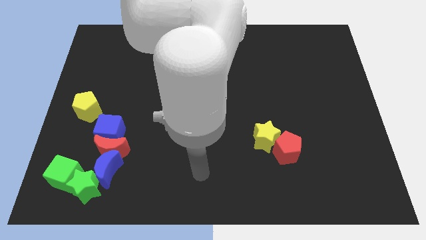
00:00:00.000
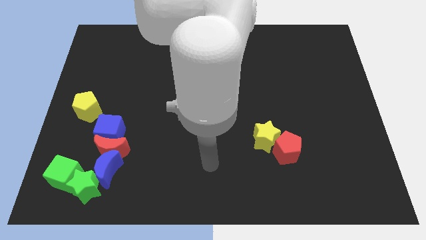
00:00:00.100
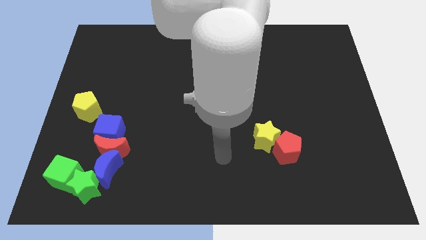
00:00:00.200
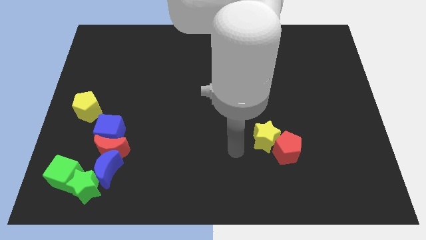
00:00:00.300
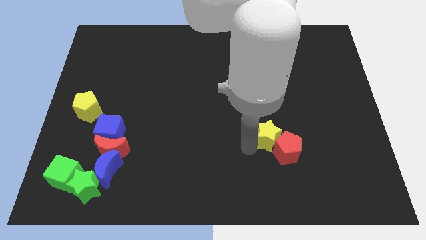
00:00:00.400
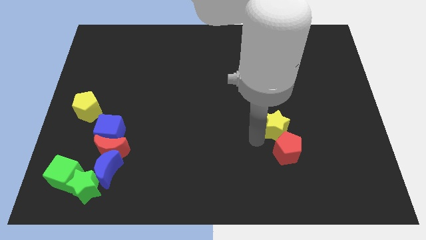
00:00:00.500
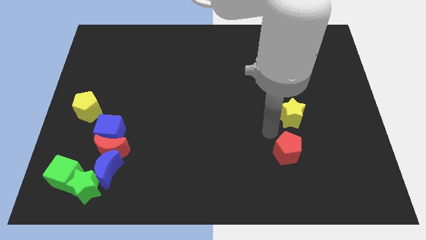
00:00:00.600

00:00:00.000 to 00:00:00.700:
pull the red pentagon apart from the yellow star

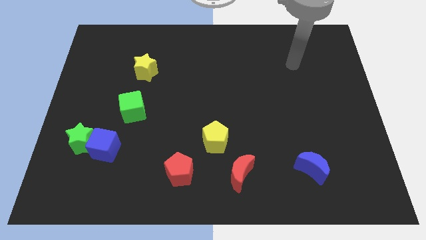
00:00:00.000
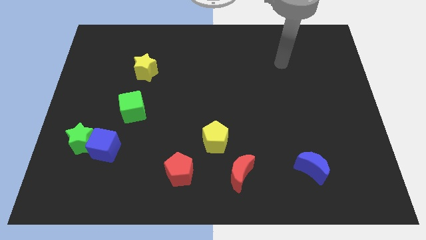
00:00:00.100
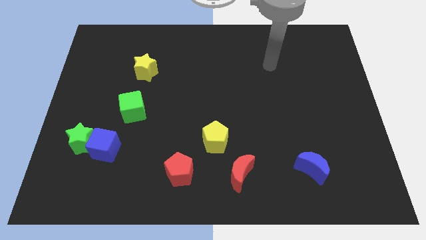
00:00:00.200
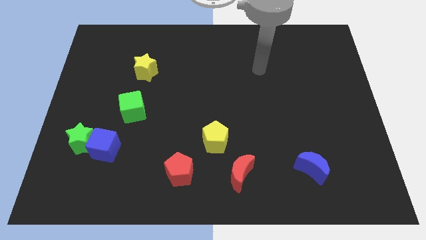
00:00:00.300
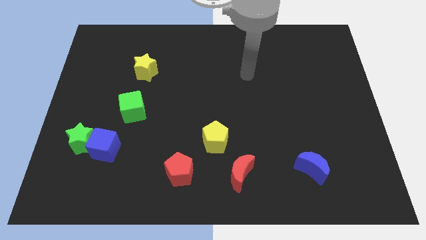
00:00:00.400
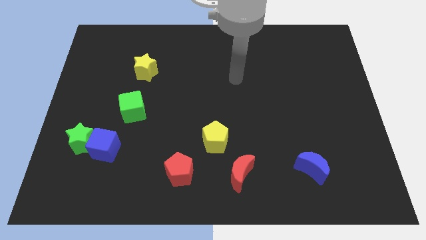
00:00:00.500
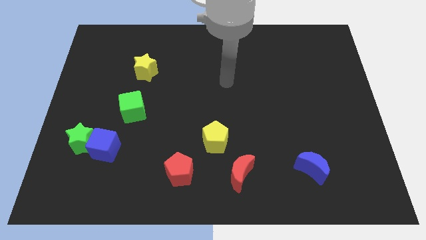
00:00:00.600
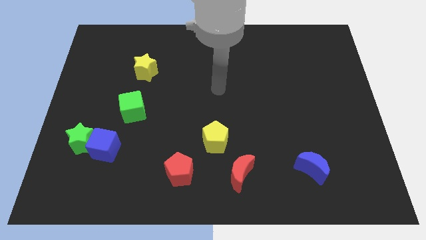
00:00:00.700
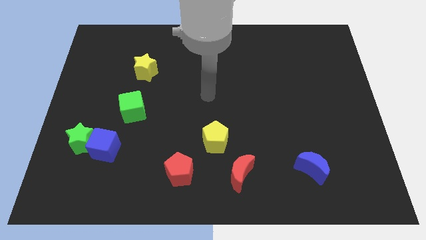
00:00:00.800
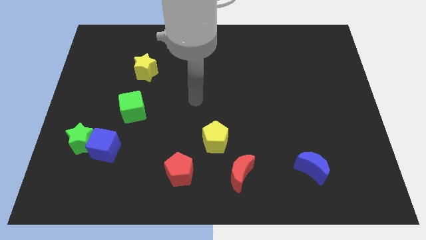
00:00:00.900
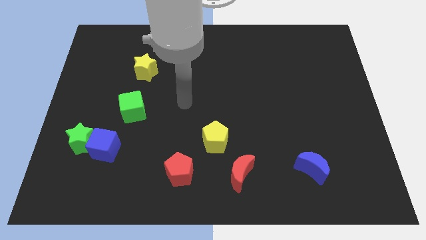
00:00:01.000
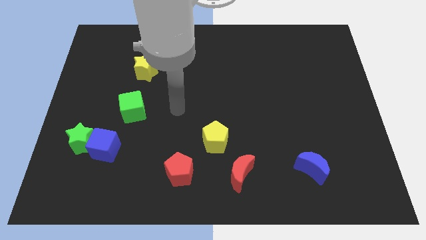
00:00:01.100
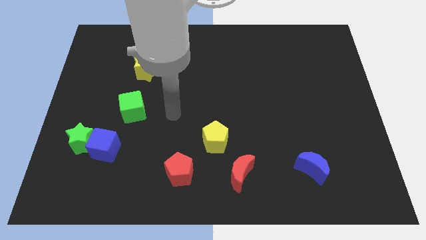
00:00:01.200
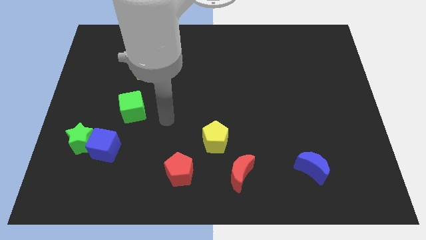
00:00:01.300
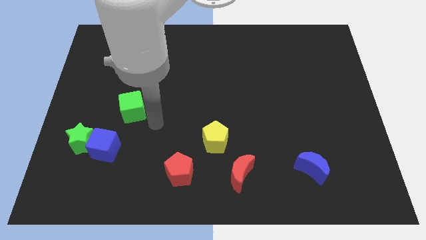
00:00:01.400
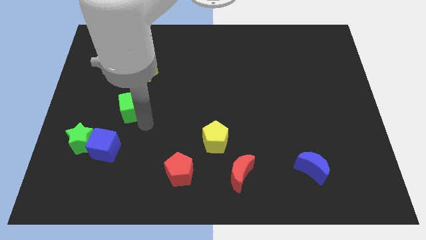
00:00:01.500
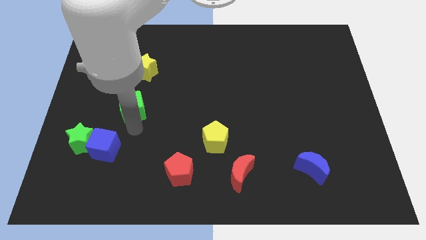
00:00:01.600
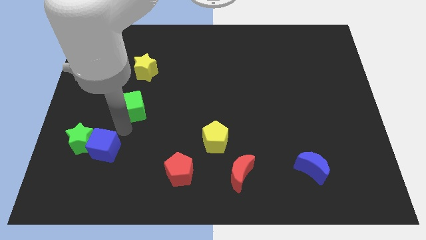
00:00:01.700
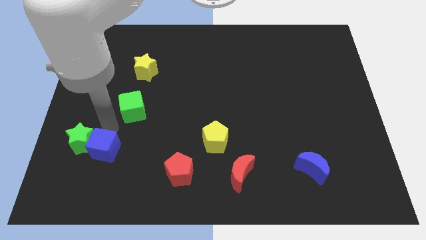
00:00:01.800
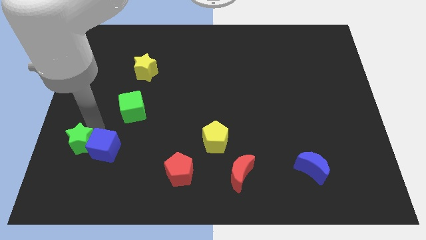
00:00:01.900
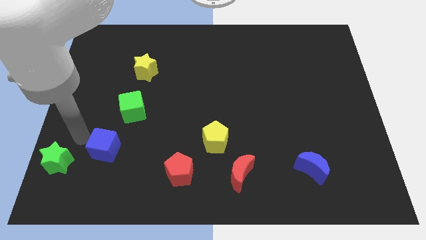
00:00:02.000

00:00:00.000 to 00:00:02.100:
move the blue cube away from the green star

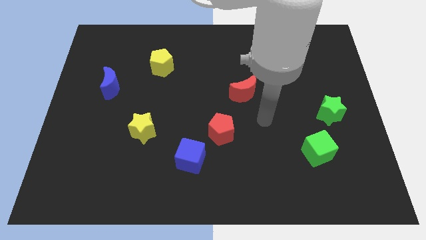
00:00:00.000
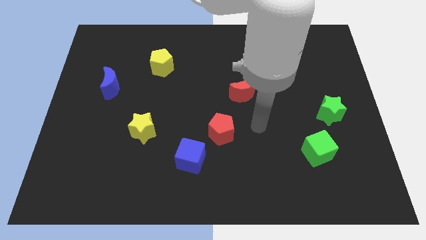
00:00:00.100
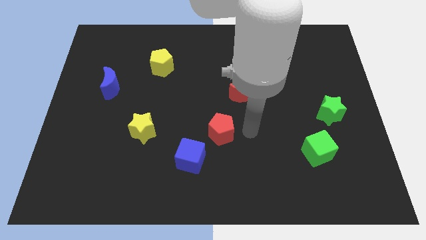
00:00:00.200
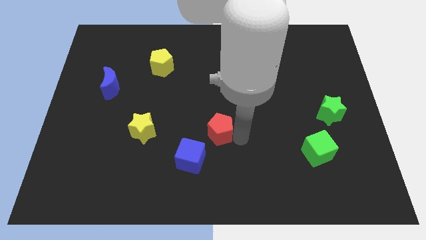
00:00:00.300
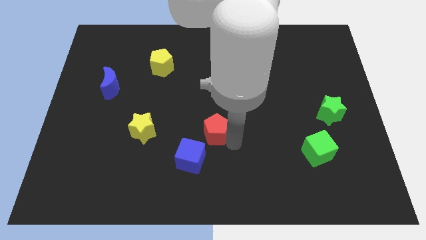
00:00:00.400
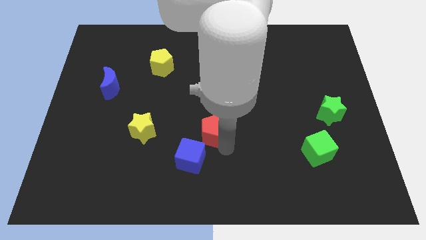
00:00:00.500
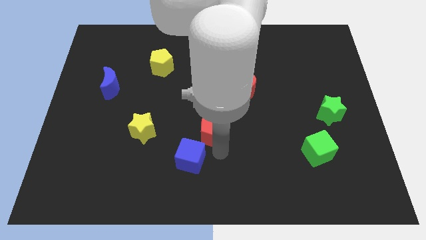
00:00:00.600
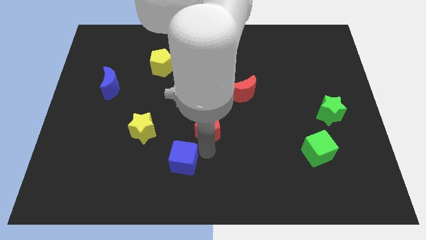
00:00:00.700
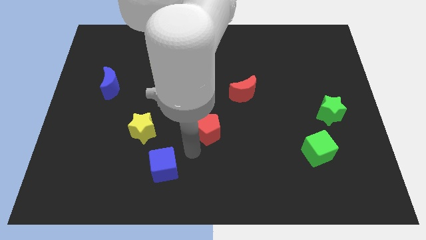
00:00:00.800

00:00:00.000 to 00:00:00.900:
pull the red pentagon apart from the blue cube

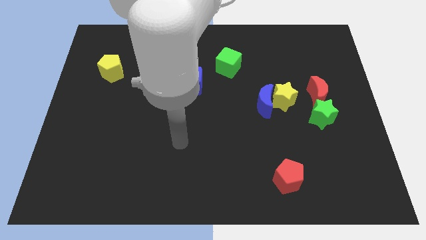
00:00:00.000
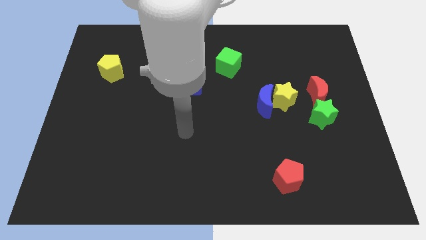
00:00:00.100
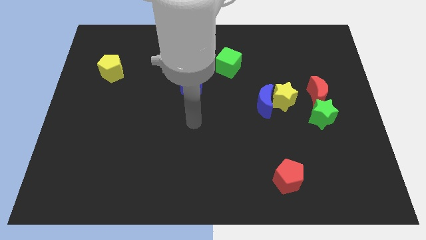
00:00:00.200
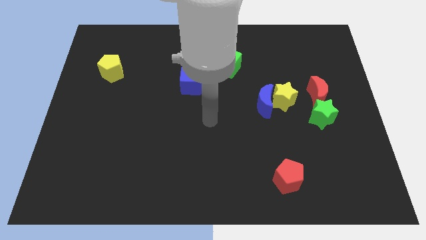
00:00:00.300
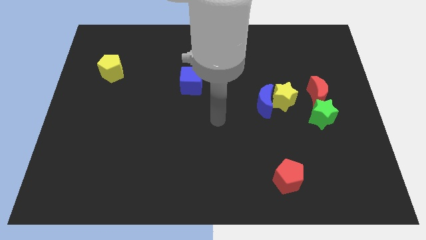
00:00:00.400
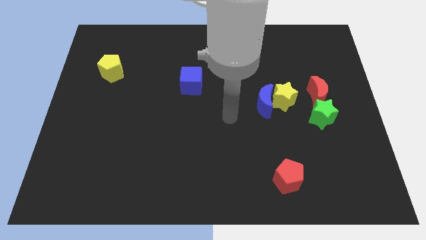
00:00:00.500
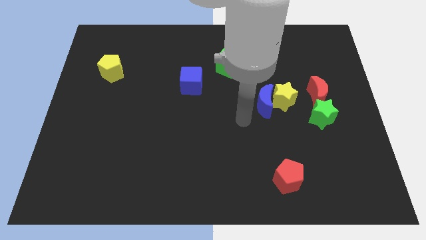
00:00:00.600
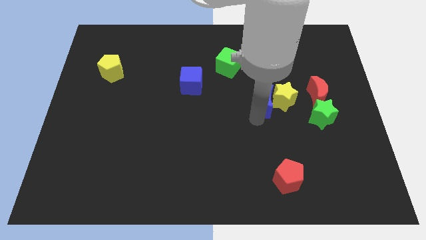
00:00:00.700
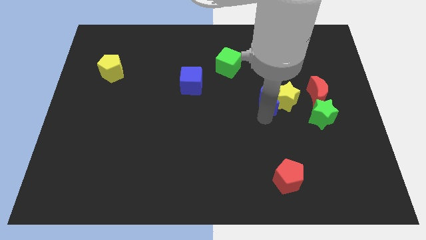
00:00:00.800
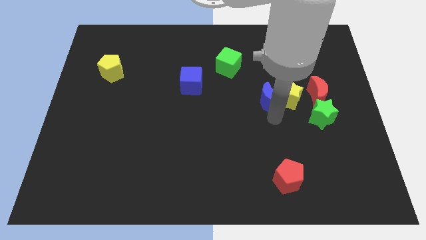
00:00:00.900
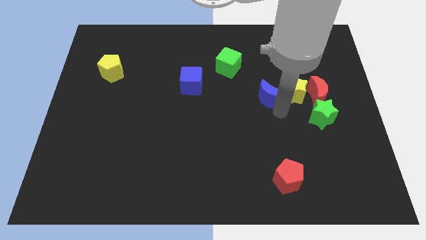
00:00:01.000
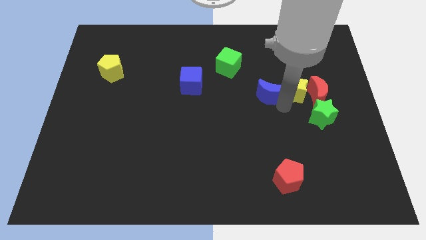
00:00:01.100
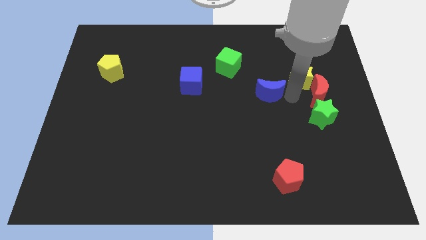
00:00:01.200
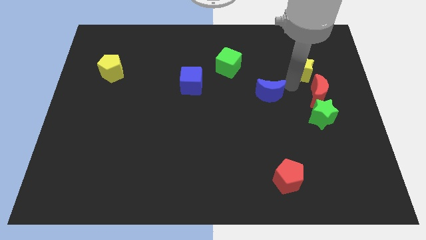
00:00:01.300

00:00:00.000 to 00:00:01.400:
move the blue moon away from the yellow star

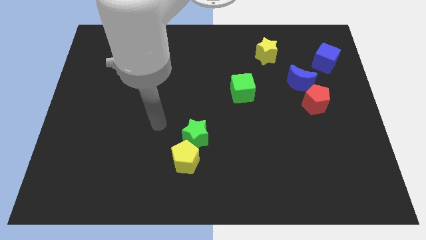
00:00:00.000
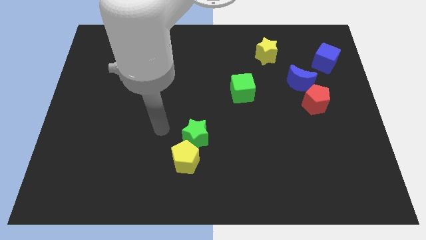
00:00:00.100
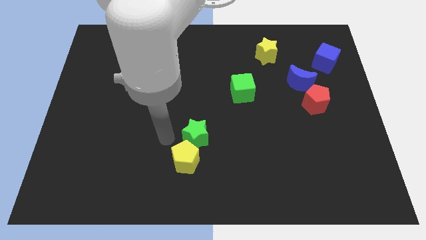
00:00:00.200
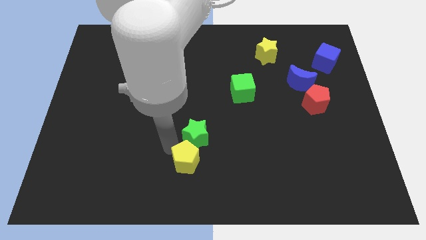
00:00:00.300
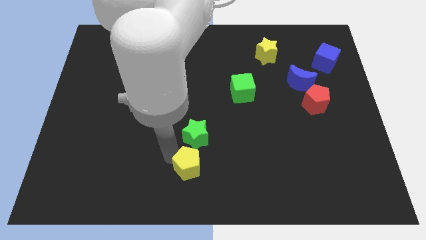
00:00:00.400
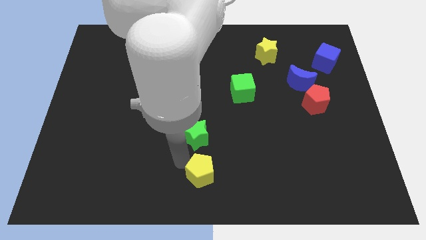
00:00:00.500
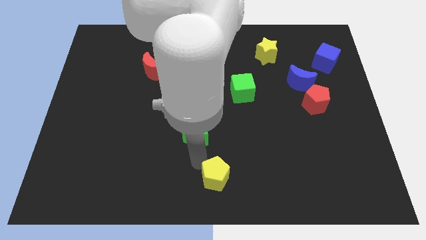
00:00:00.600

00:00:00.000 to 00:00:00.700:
move the green star away from the yellow pentagon

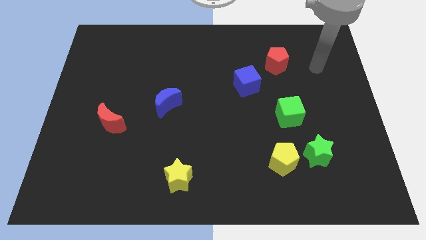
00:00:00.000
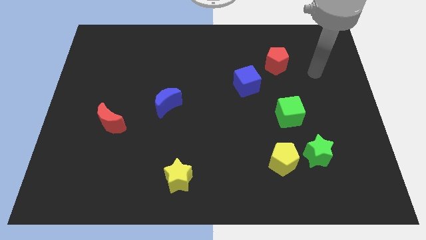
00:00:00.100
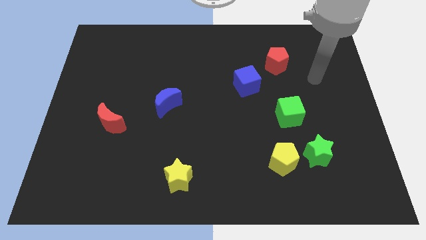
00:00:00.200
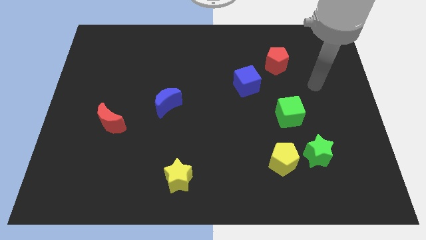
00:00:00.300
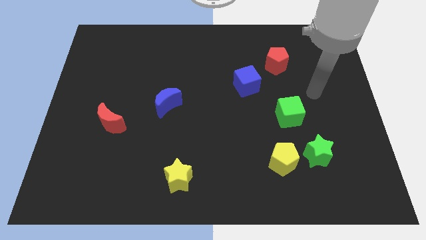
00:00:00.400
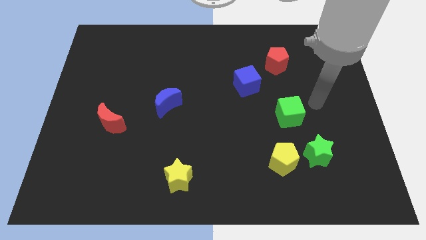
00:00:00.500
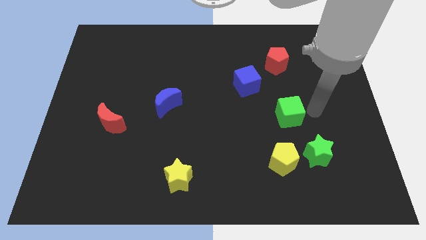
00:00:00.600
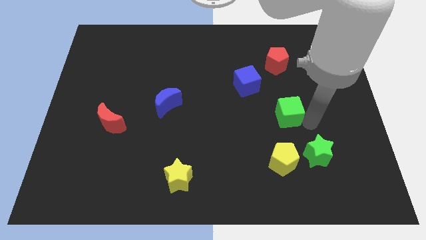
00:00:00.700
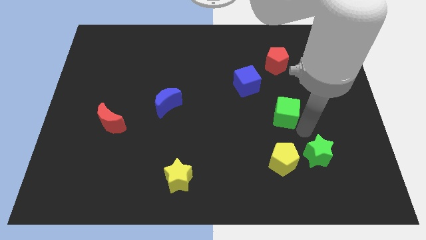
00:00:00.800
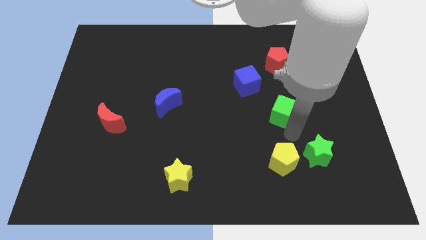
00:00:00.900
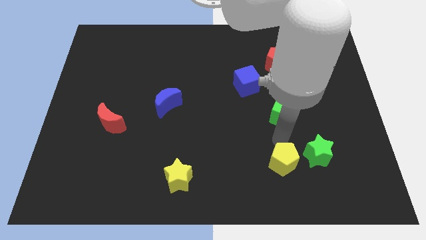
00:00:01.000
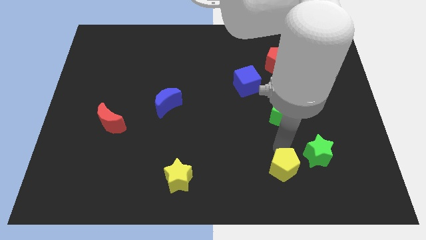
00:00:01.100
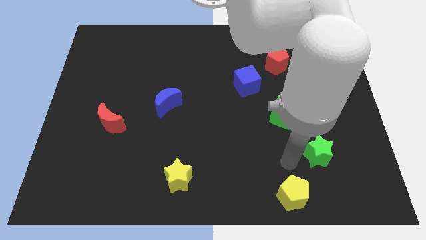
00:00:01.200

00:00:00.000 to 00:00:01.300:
pull the green star apart from the yellow pentagon

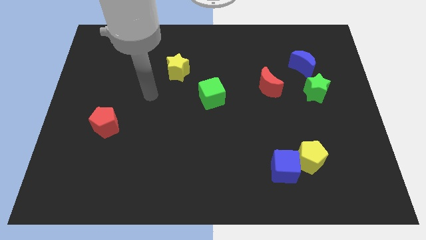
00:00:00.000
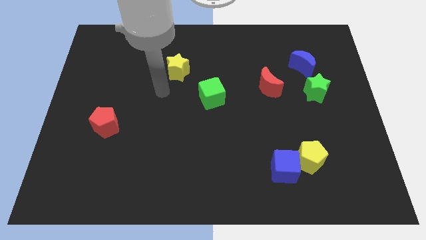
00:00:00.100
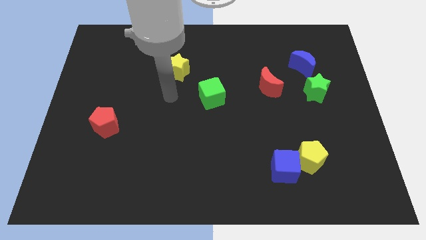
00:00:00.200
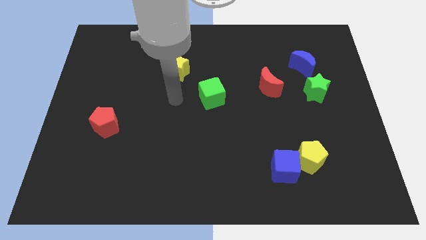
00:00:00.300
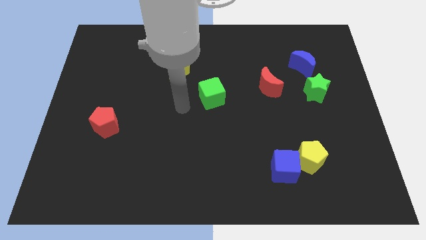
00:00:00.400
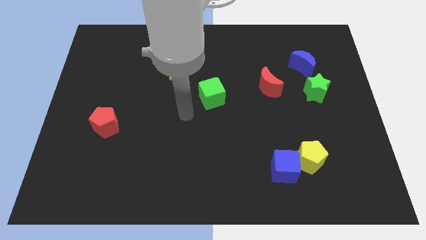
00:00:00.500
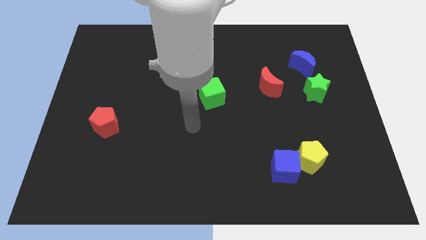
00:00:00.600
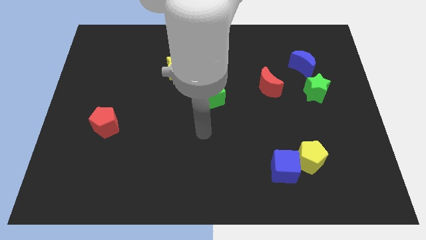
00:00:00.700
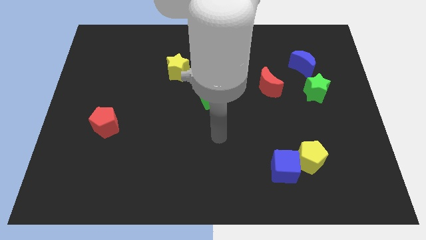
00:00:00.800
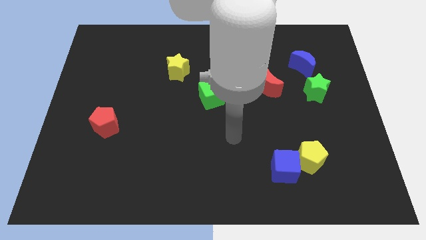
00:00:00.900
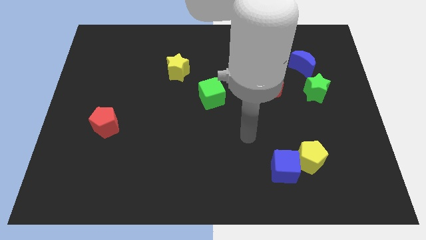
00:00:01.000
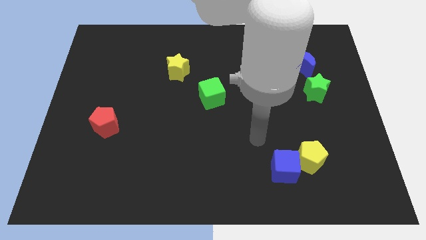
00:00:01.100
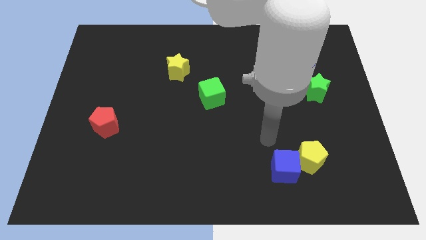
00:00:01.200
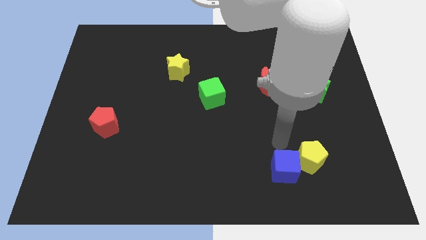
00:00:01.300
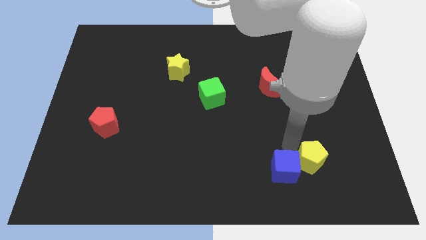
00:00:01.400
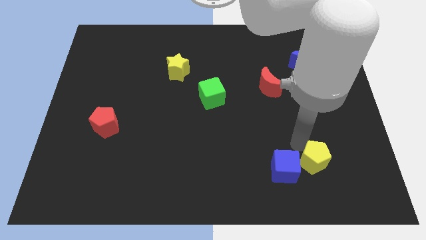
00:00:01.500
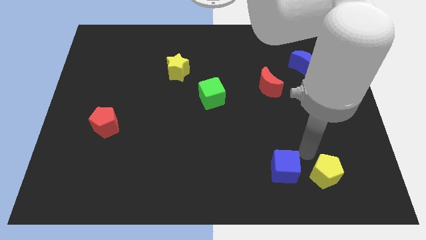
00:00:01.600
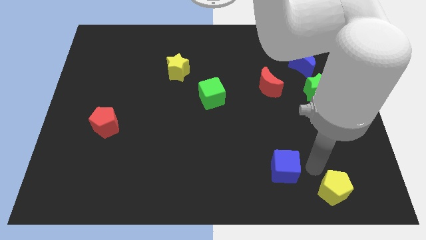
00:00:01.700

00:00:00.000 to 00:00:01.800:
pull the blue cube apart from the yellow pentagon

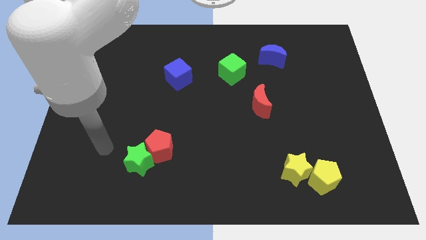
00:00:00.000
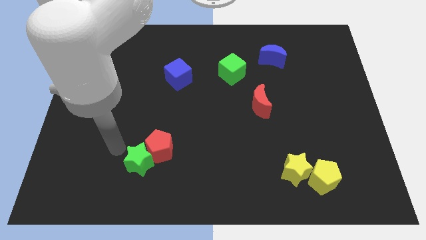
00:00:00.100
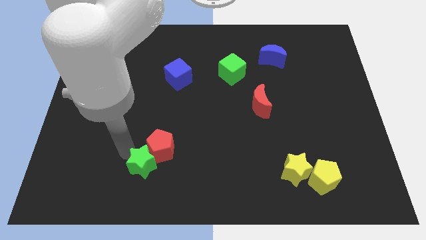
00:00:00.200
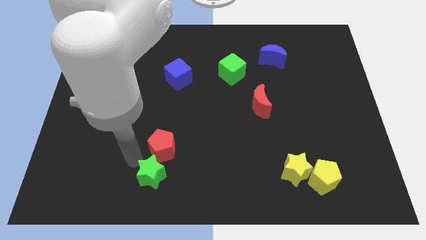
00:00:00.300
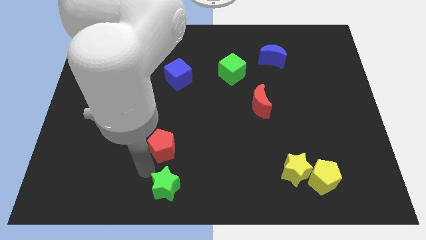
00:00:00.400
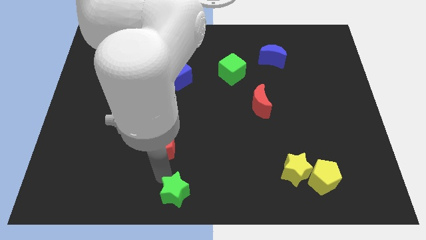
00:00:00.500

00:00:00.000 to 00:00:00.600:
pull the red pentagon apart from the green star
